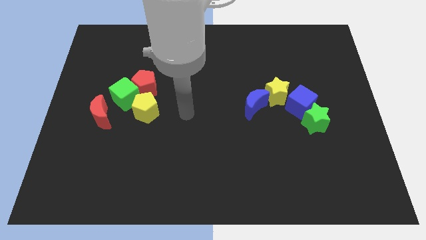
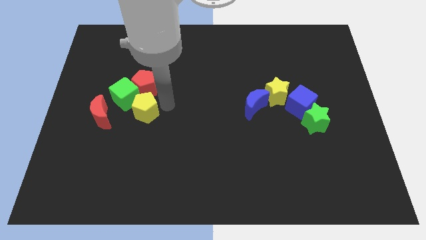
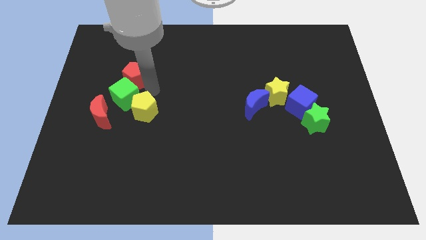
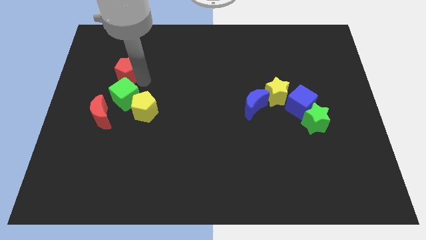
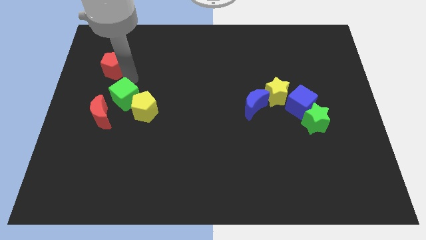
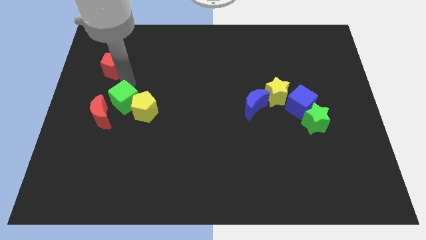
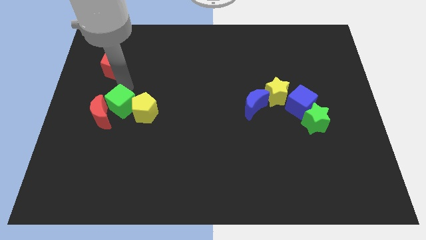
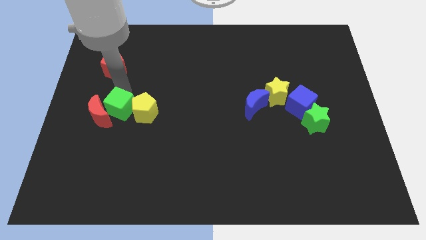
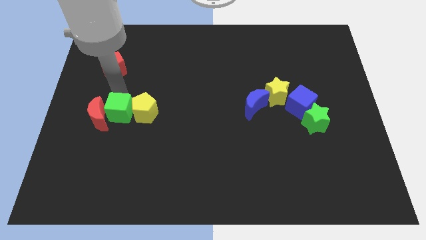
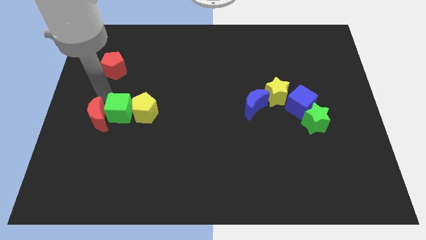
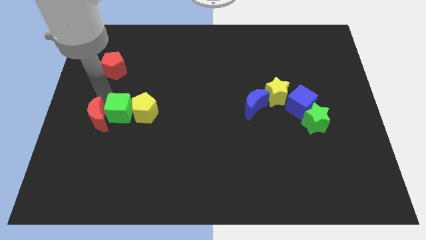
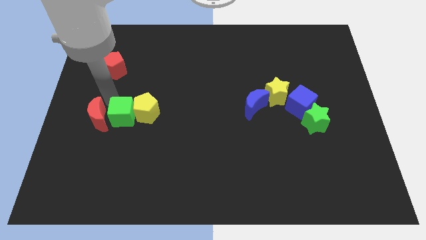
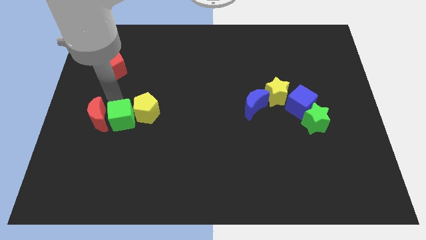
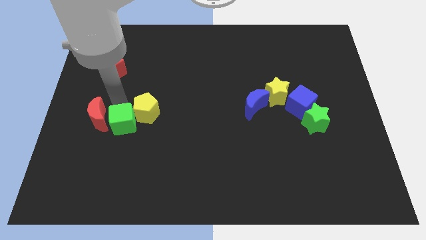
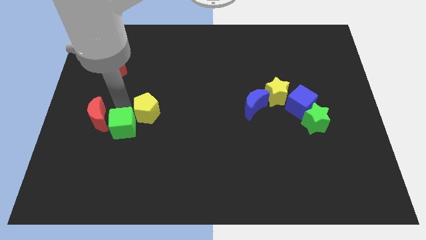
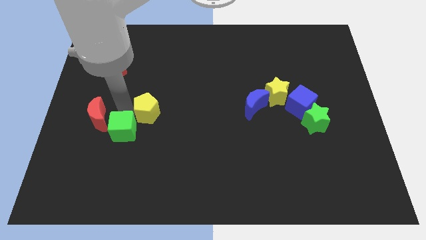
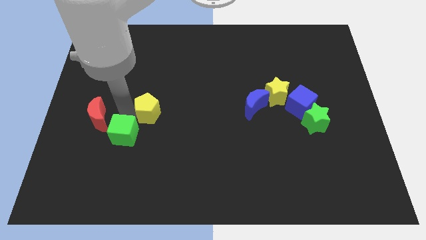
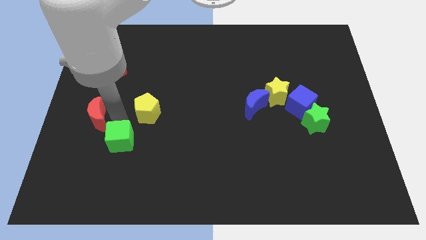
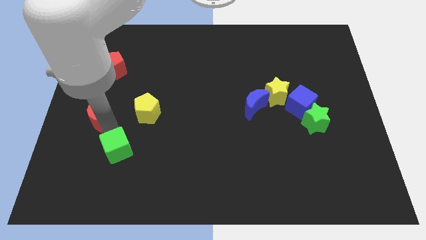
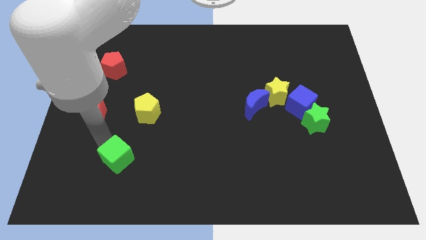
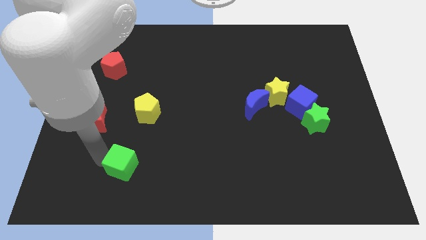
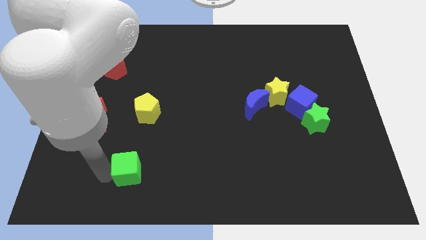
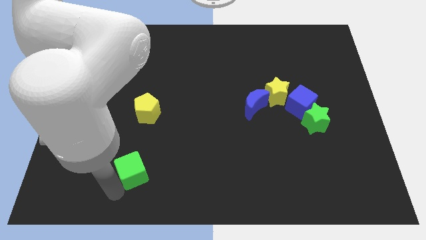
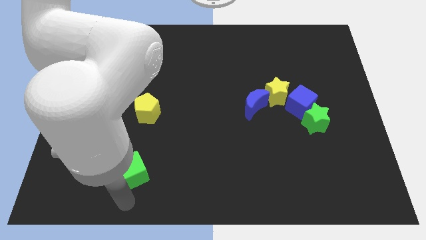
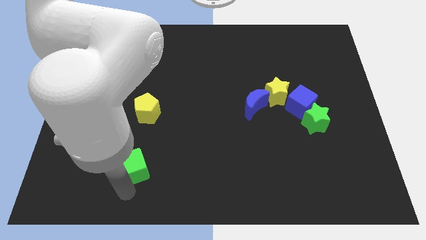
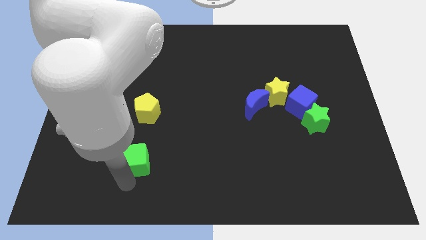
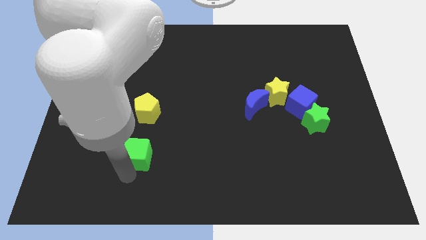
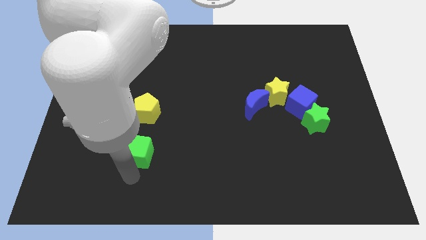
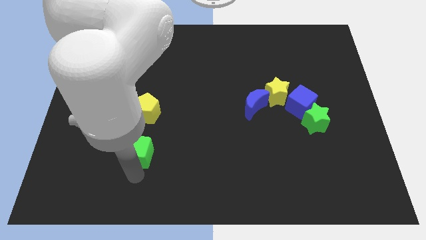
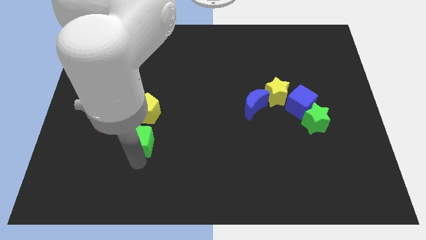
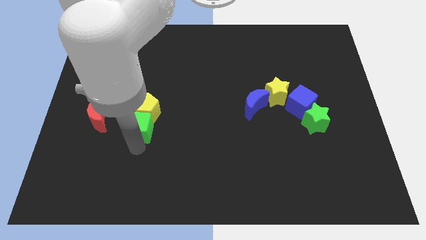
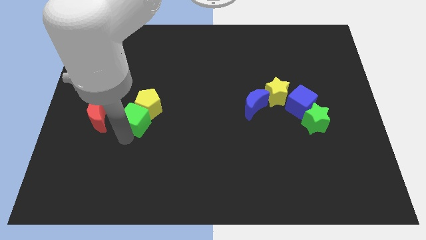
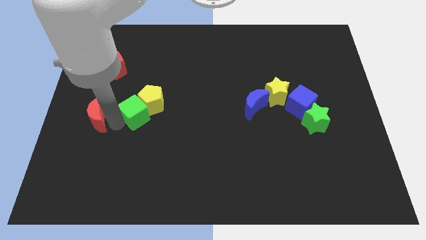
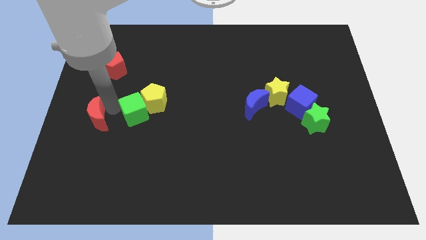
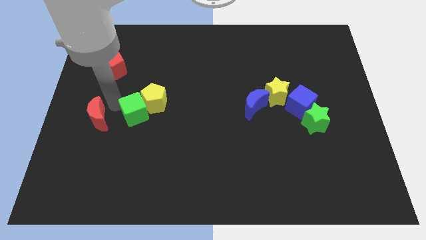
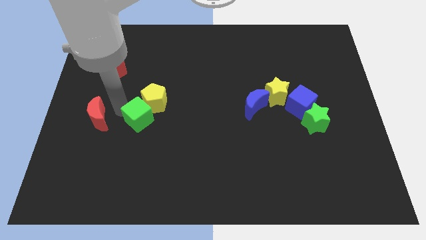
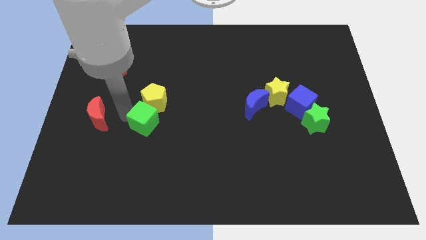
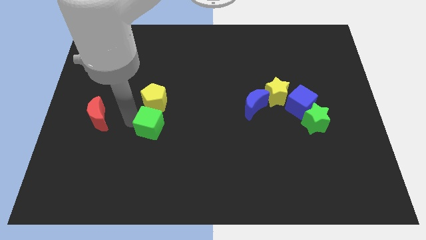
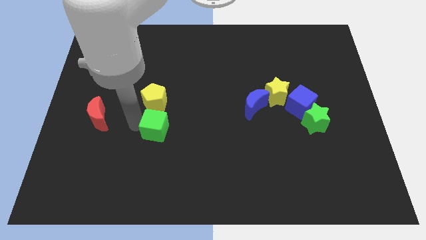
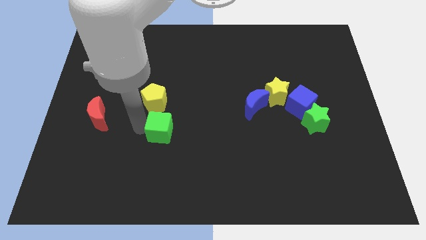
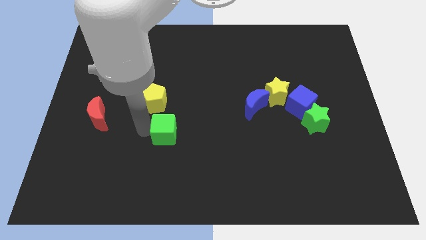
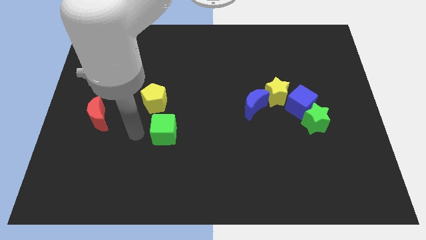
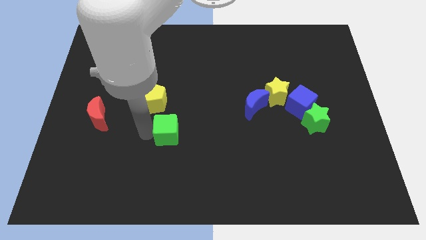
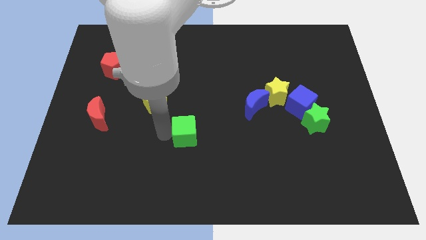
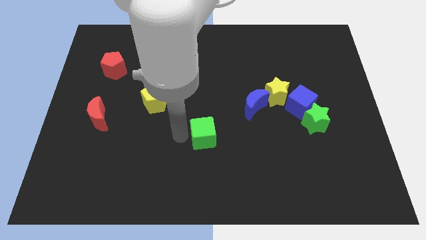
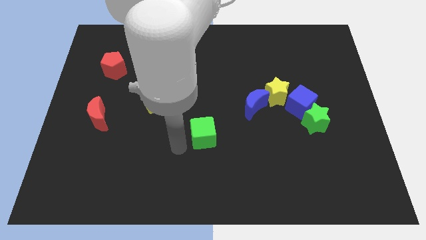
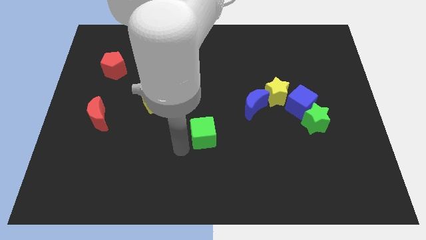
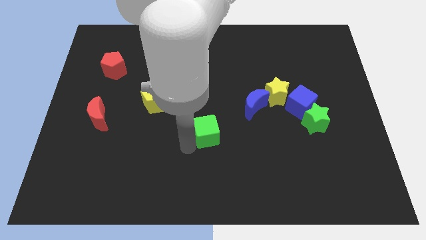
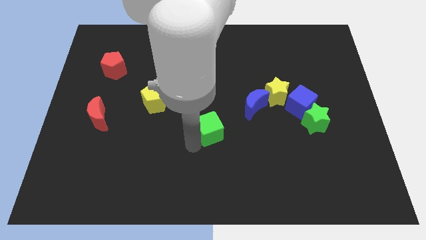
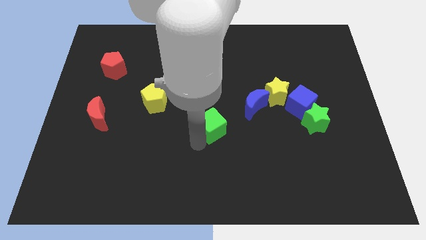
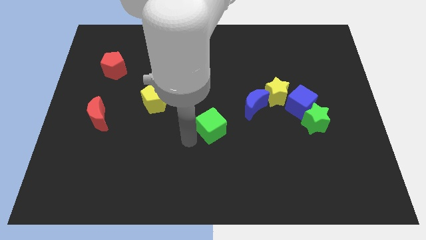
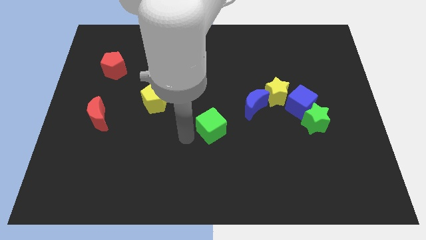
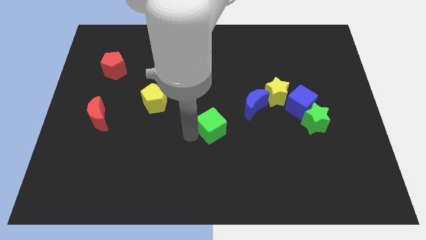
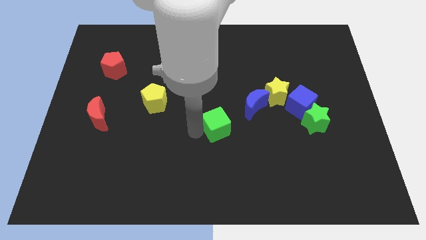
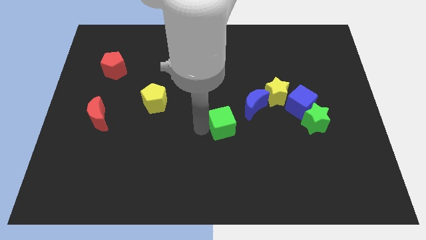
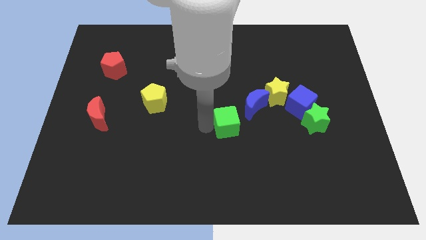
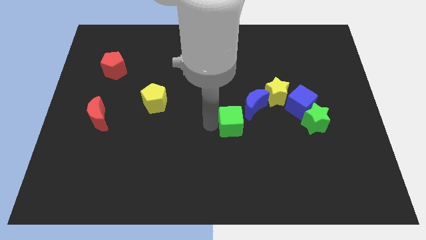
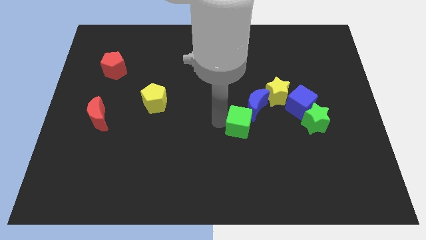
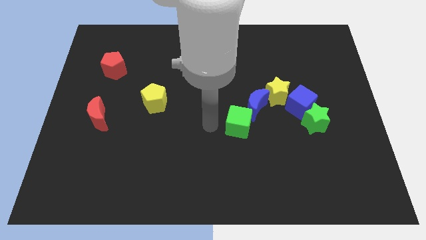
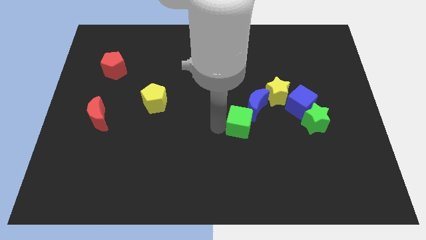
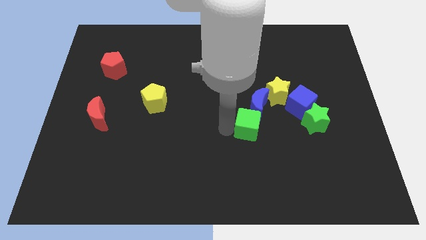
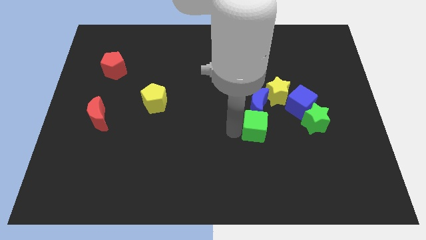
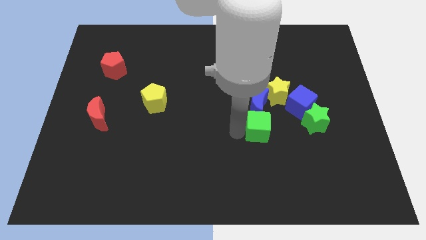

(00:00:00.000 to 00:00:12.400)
push the green cube diagonally down and to the right of the blue moon
